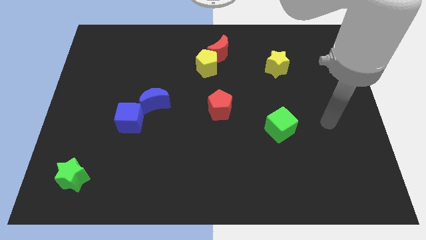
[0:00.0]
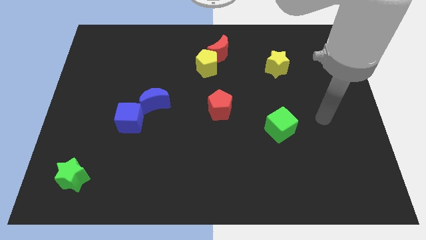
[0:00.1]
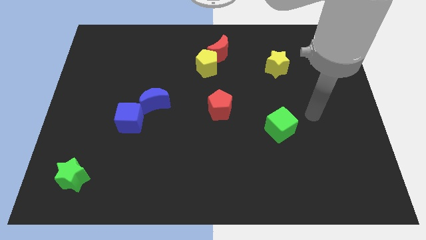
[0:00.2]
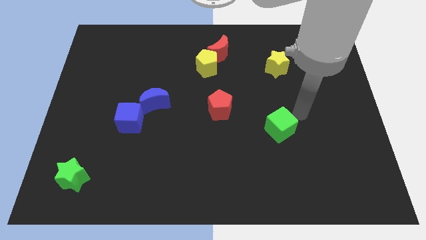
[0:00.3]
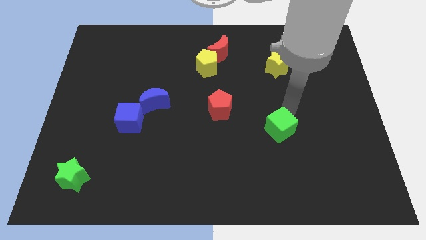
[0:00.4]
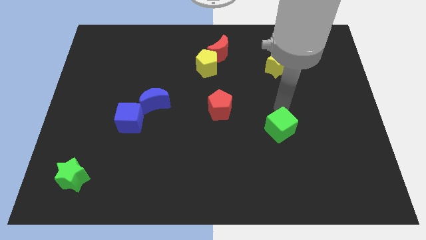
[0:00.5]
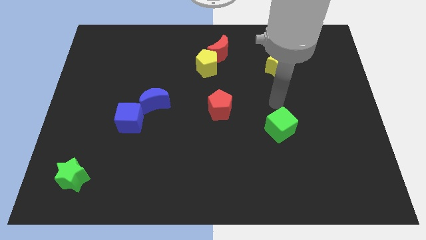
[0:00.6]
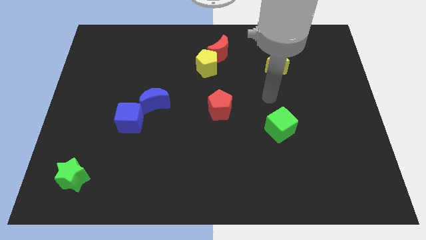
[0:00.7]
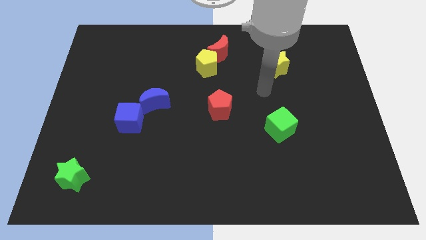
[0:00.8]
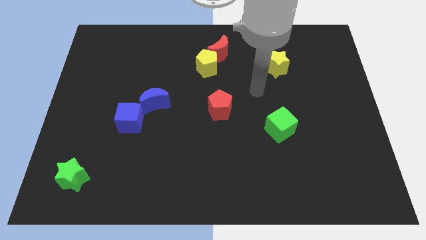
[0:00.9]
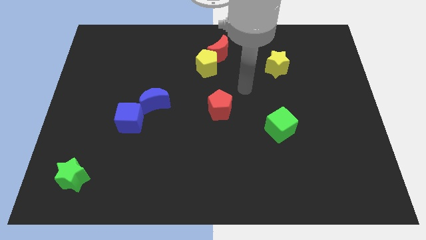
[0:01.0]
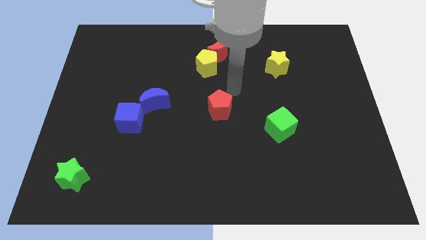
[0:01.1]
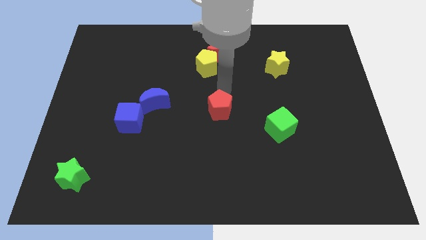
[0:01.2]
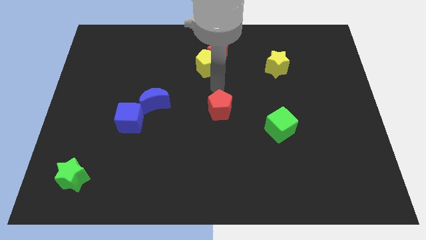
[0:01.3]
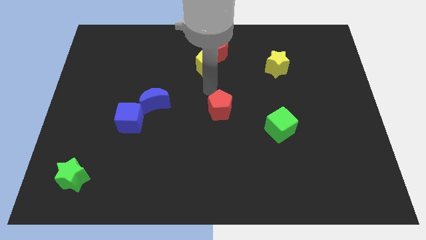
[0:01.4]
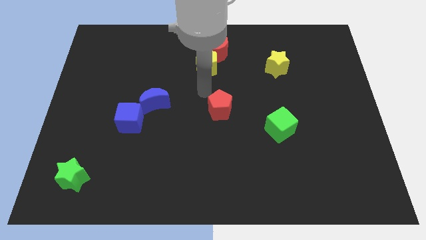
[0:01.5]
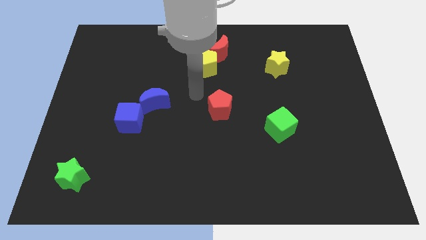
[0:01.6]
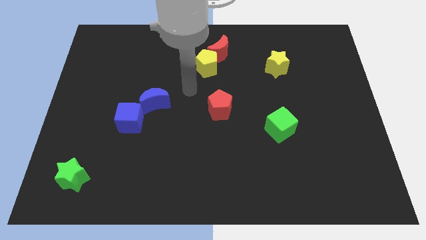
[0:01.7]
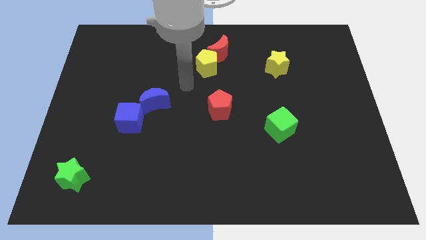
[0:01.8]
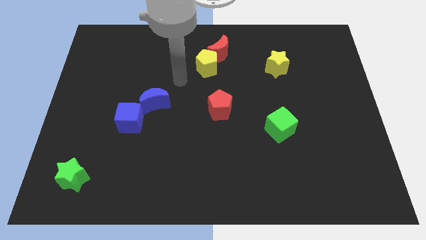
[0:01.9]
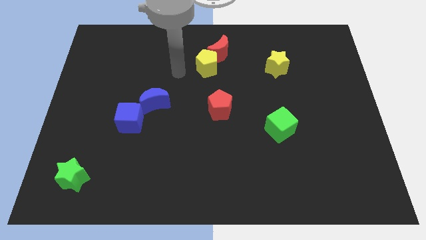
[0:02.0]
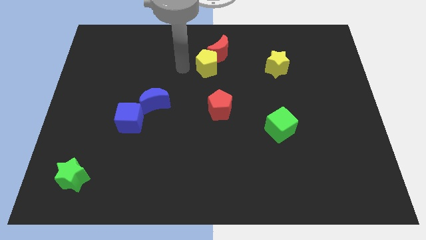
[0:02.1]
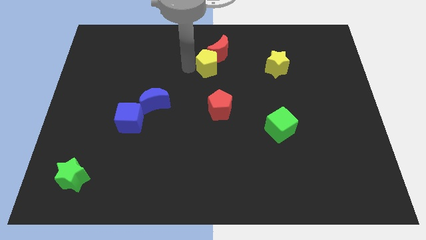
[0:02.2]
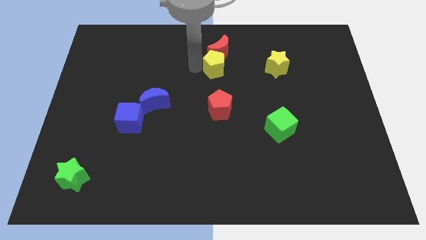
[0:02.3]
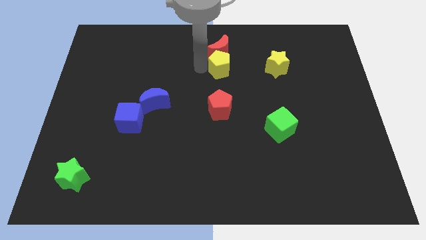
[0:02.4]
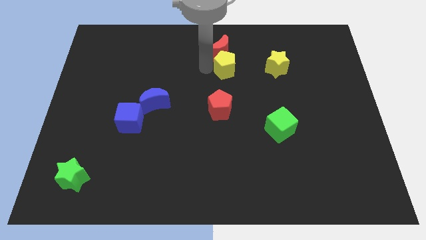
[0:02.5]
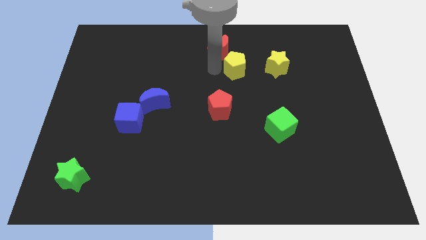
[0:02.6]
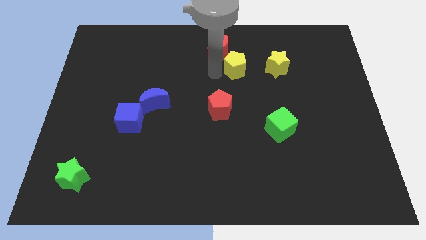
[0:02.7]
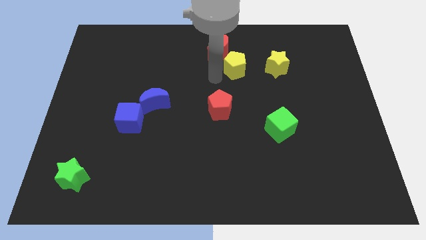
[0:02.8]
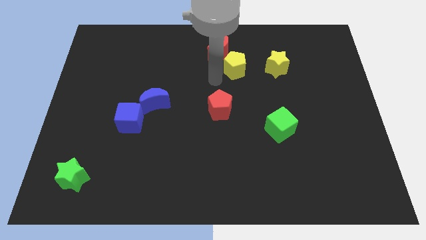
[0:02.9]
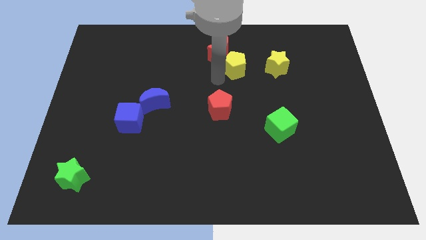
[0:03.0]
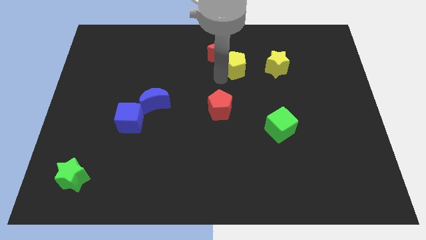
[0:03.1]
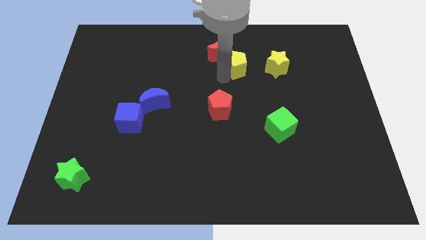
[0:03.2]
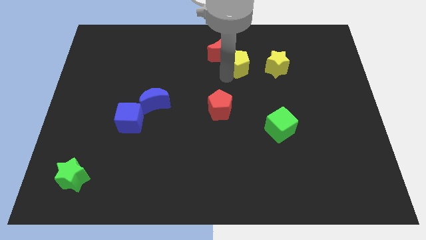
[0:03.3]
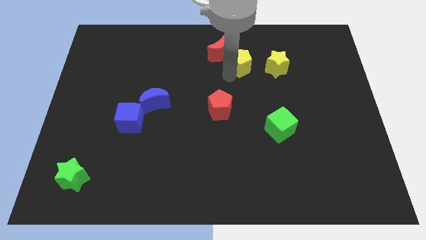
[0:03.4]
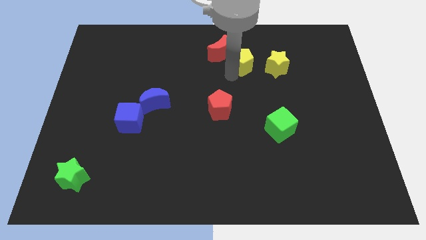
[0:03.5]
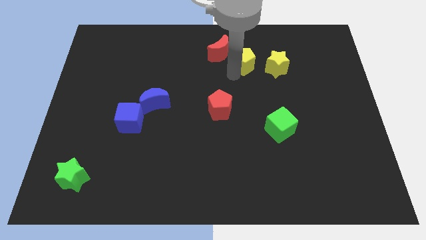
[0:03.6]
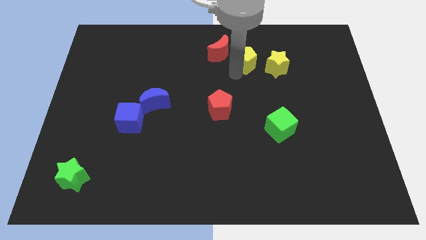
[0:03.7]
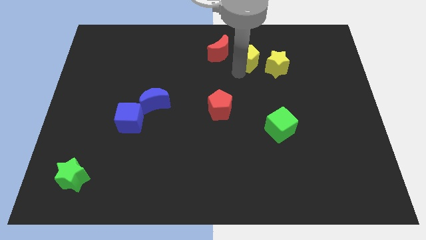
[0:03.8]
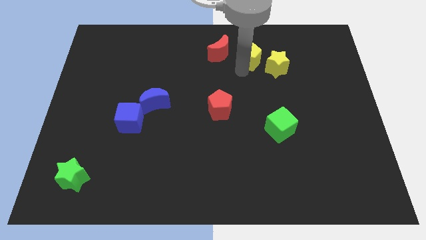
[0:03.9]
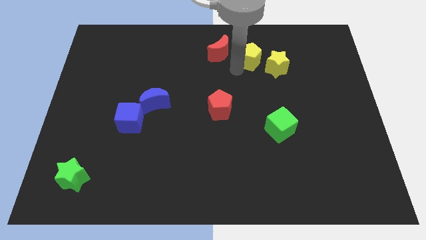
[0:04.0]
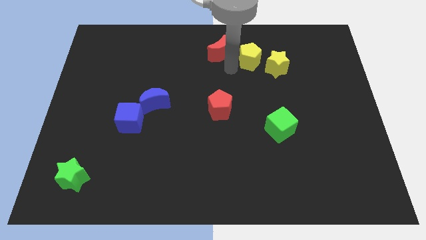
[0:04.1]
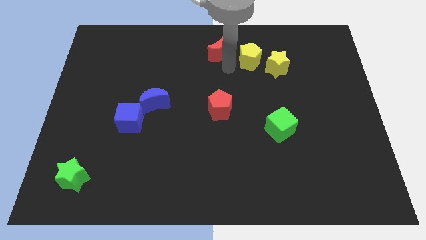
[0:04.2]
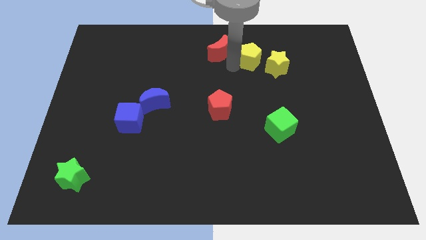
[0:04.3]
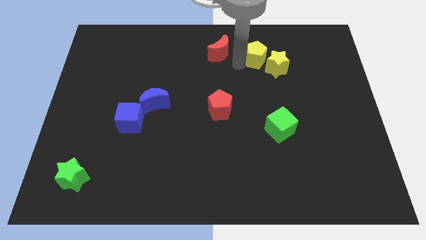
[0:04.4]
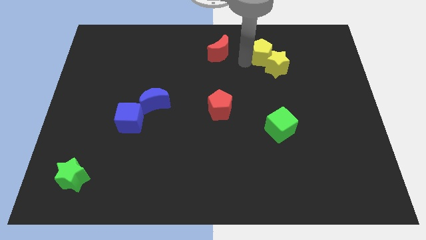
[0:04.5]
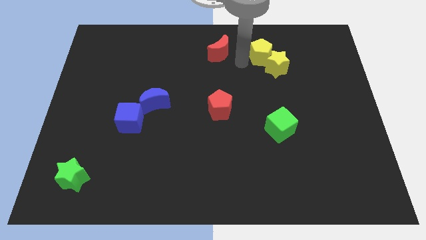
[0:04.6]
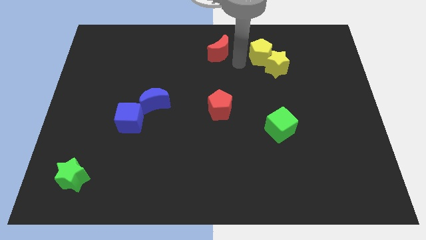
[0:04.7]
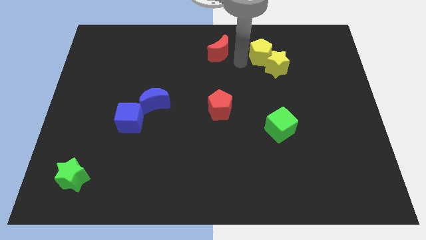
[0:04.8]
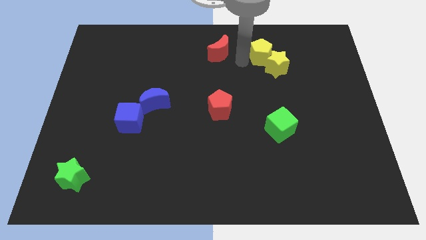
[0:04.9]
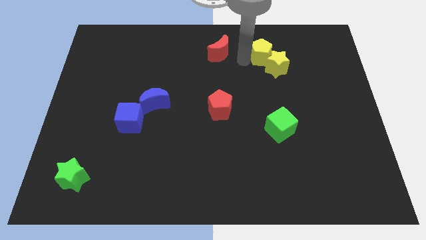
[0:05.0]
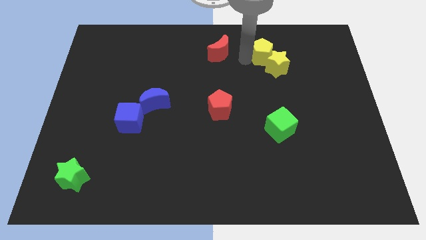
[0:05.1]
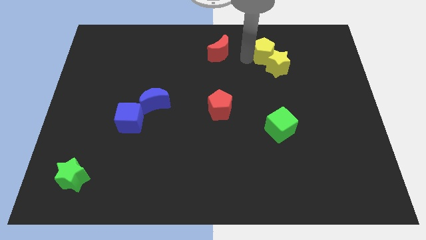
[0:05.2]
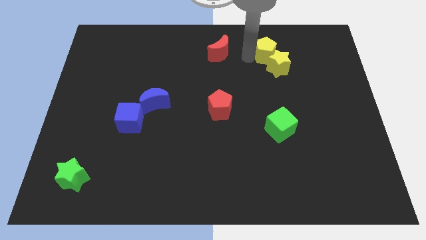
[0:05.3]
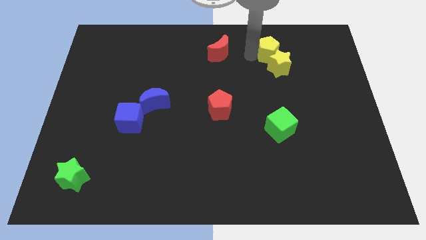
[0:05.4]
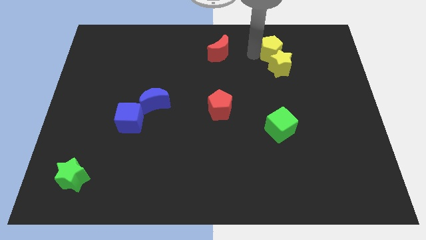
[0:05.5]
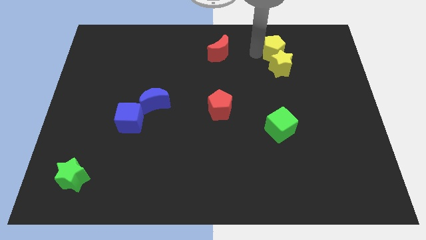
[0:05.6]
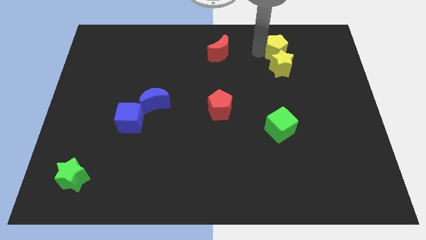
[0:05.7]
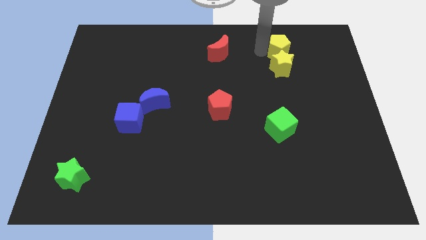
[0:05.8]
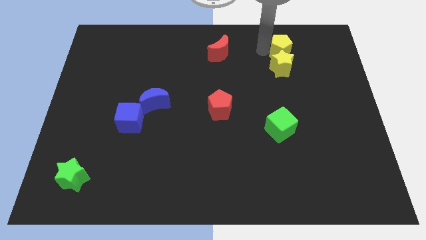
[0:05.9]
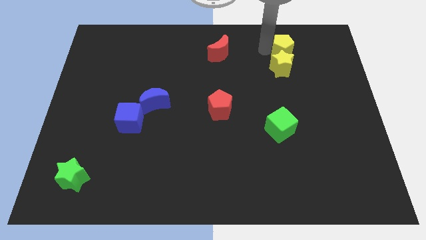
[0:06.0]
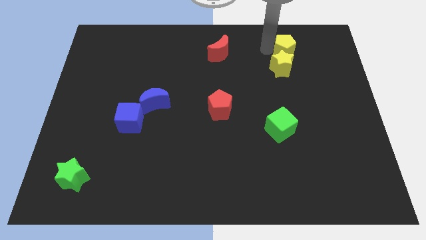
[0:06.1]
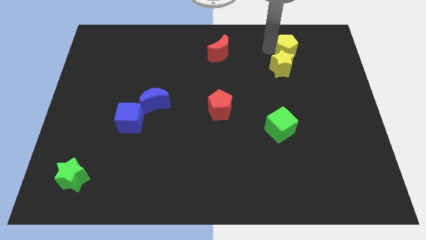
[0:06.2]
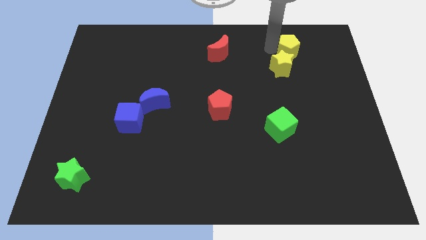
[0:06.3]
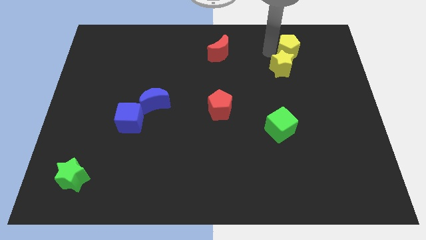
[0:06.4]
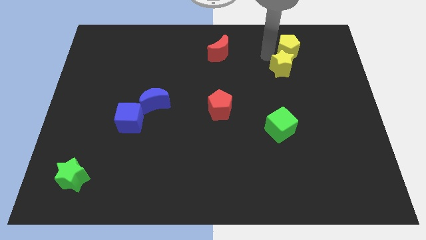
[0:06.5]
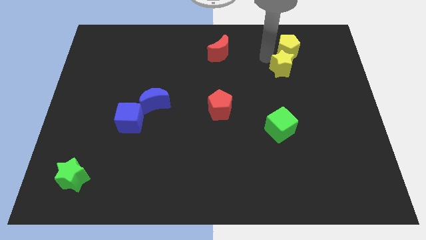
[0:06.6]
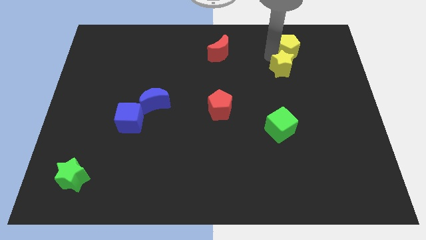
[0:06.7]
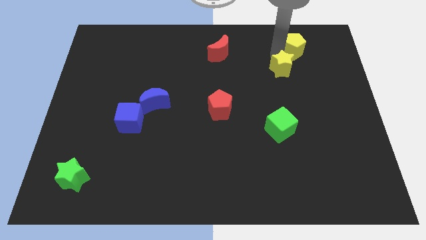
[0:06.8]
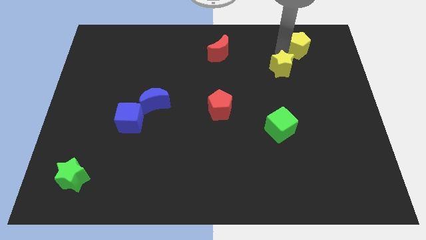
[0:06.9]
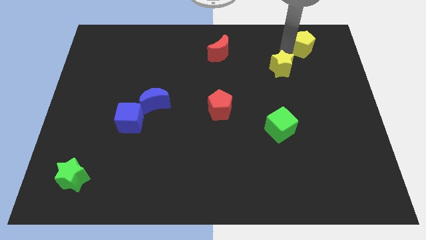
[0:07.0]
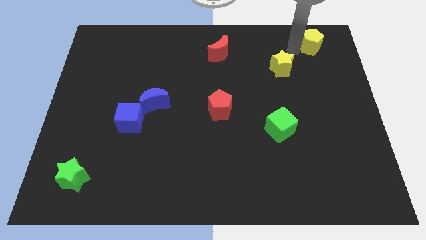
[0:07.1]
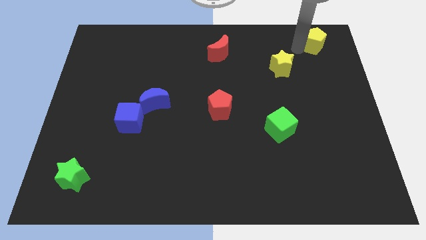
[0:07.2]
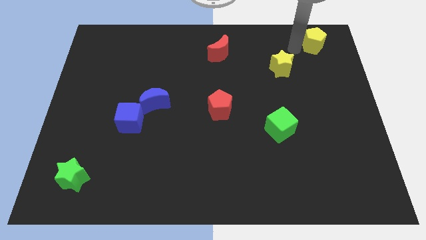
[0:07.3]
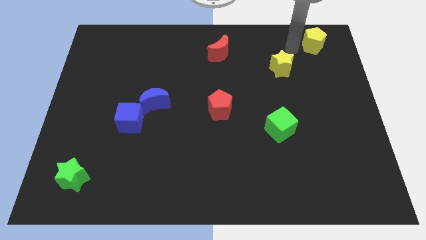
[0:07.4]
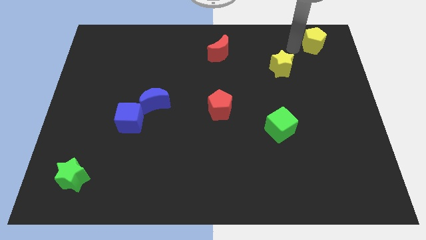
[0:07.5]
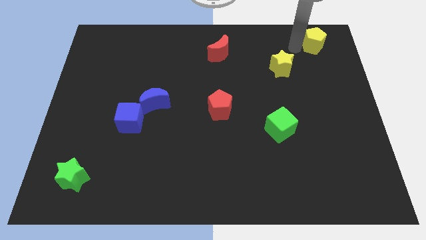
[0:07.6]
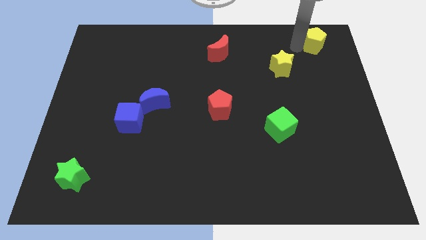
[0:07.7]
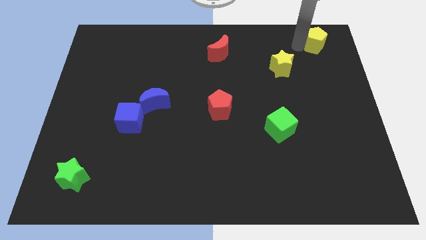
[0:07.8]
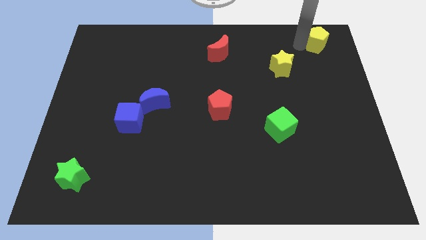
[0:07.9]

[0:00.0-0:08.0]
slide the yellow pentagon to the top right
